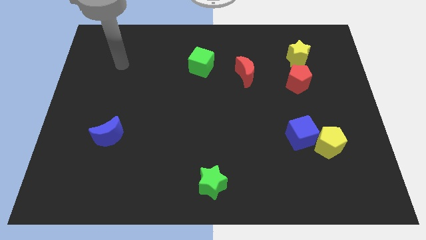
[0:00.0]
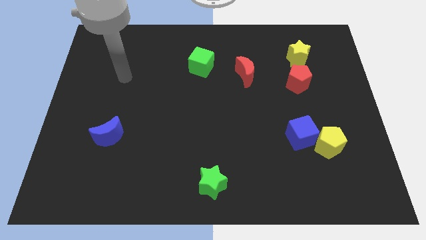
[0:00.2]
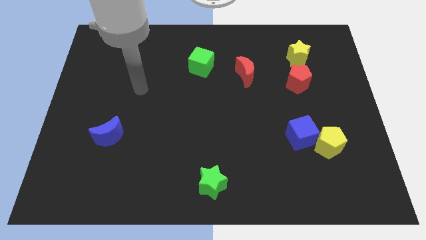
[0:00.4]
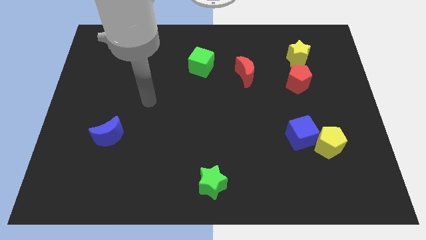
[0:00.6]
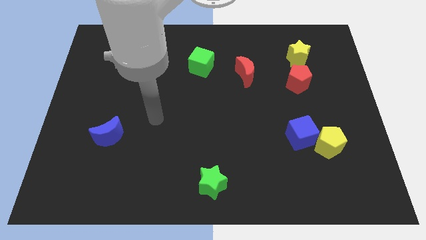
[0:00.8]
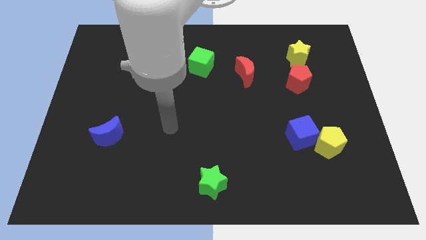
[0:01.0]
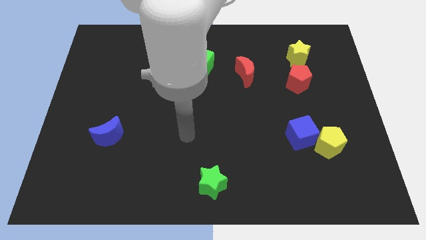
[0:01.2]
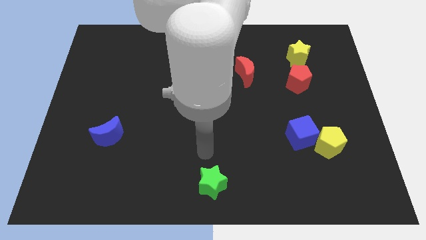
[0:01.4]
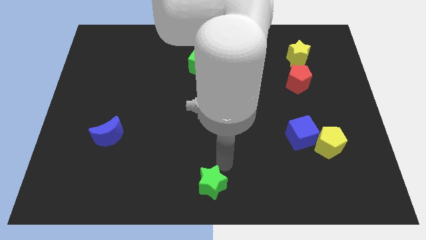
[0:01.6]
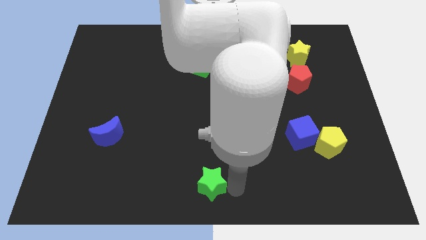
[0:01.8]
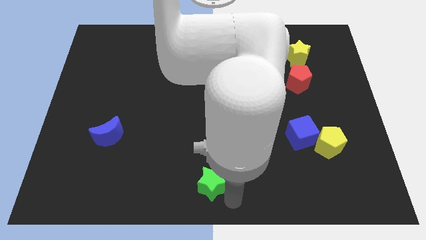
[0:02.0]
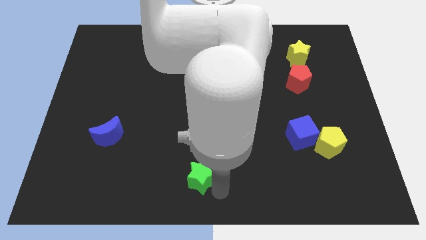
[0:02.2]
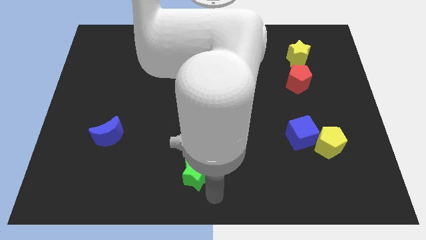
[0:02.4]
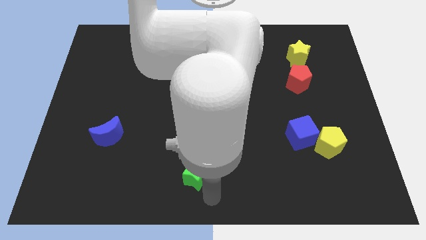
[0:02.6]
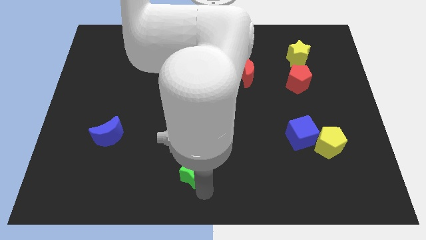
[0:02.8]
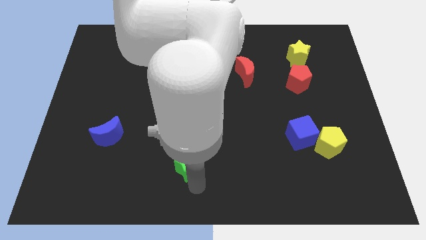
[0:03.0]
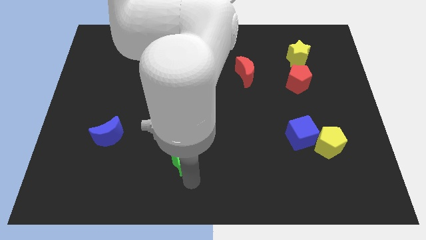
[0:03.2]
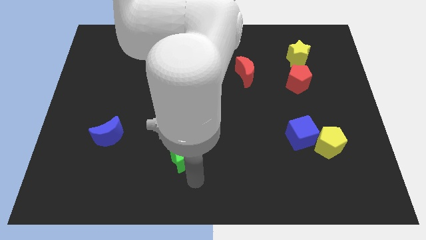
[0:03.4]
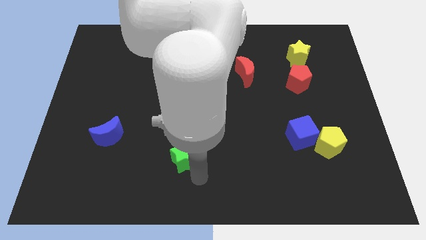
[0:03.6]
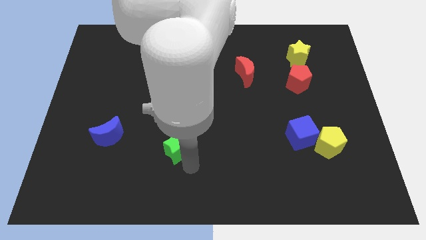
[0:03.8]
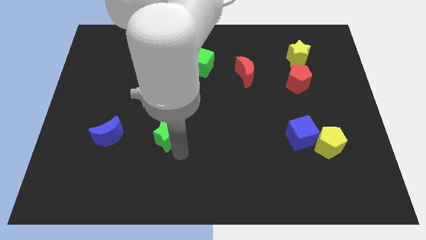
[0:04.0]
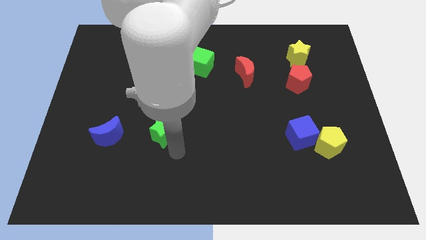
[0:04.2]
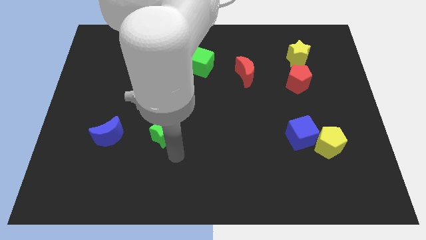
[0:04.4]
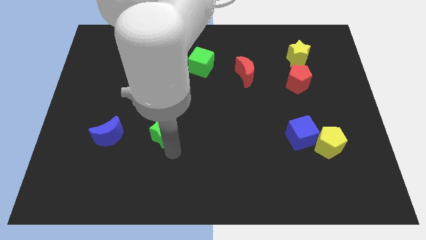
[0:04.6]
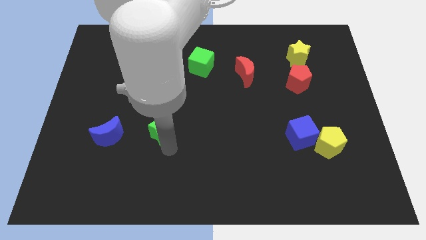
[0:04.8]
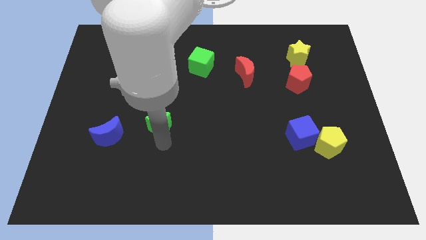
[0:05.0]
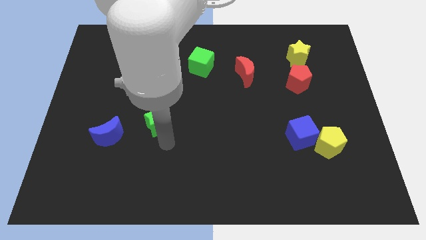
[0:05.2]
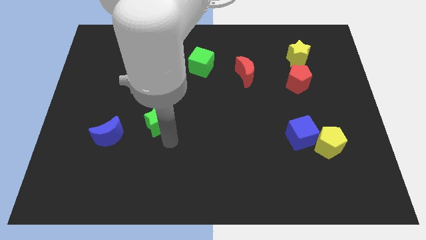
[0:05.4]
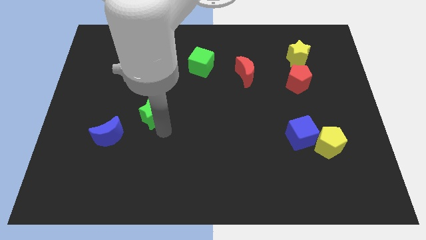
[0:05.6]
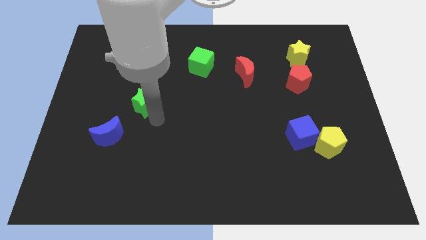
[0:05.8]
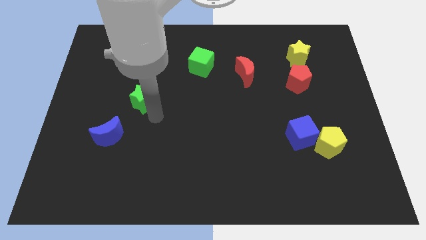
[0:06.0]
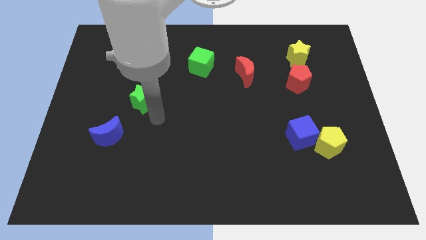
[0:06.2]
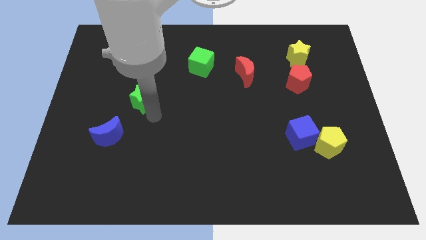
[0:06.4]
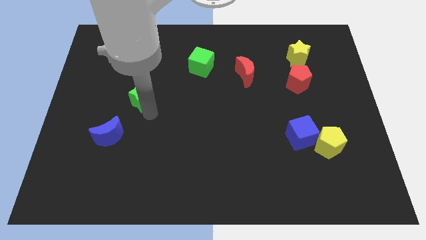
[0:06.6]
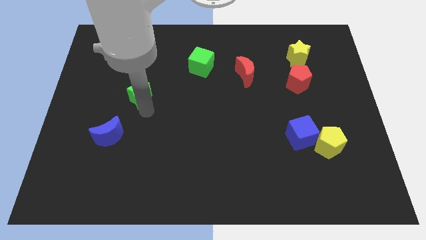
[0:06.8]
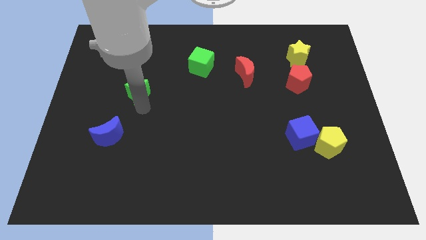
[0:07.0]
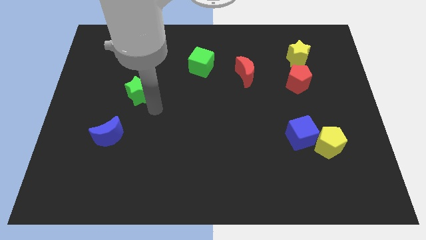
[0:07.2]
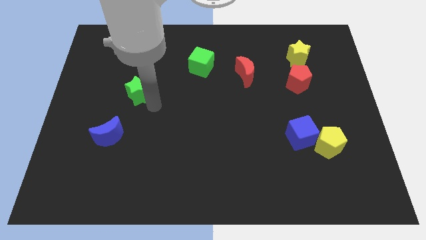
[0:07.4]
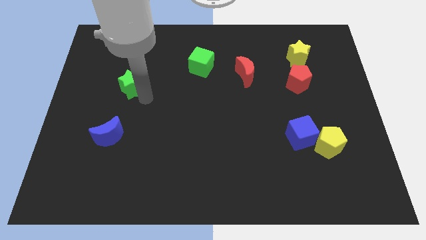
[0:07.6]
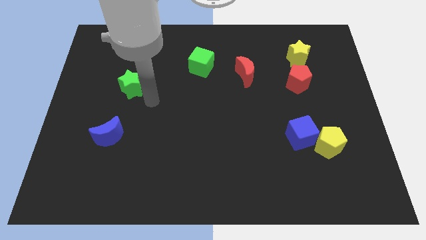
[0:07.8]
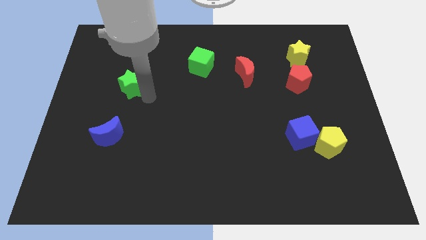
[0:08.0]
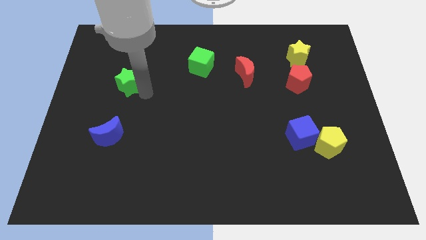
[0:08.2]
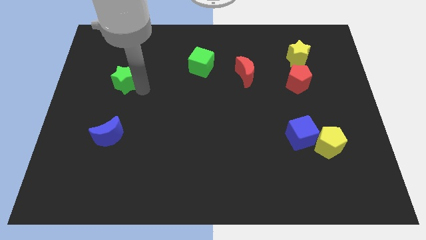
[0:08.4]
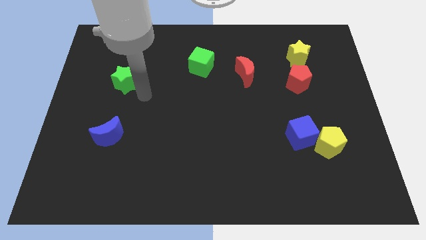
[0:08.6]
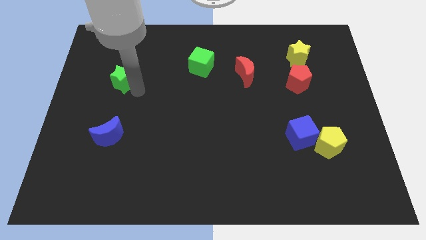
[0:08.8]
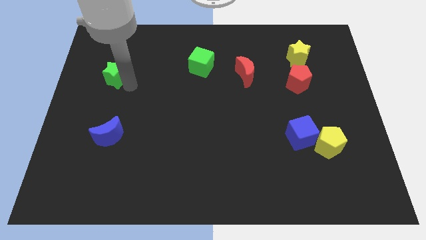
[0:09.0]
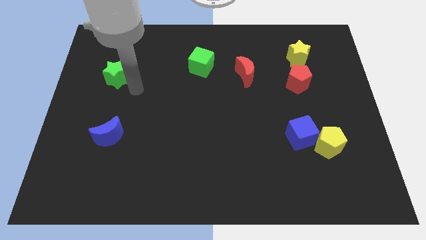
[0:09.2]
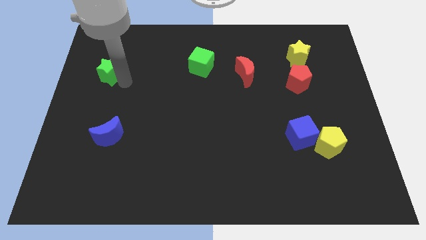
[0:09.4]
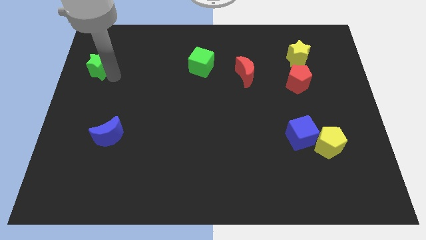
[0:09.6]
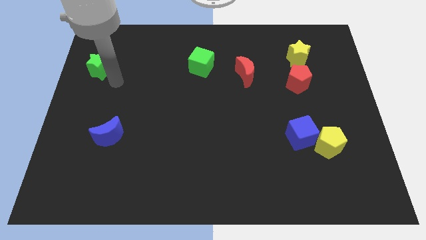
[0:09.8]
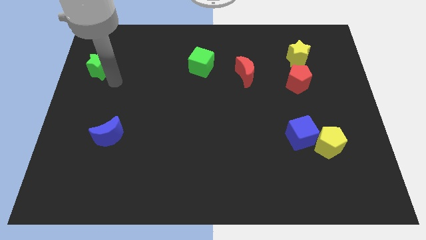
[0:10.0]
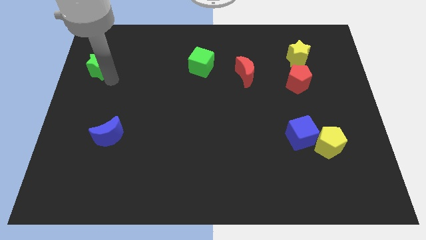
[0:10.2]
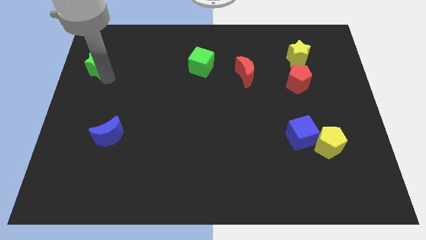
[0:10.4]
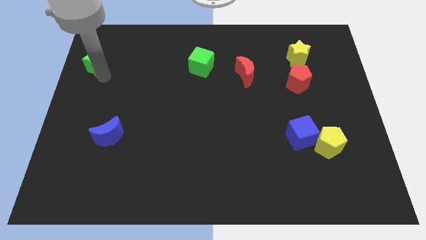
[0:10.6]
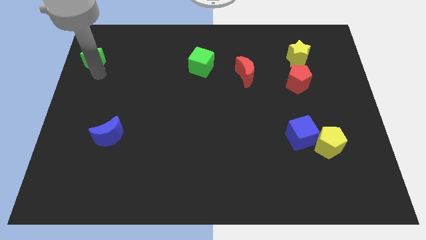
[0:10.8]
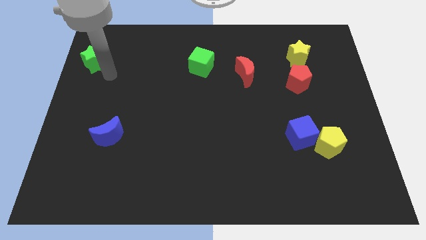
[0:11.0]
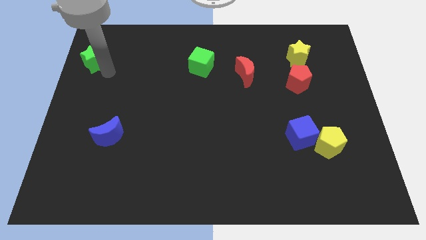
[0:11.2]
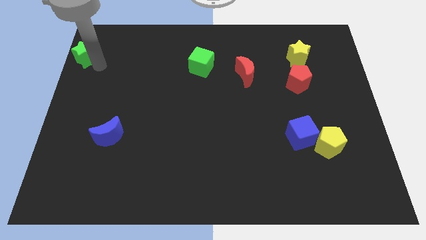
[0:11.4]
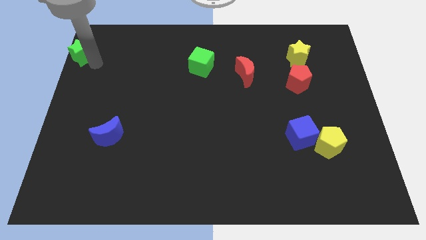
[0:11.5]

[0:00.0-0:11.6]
move the green star to the top left corner

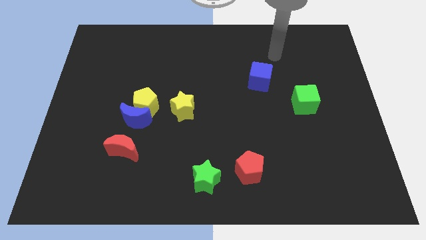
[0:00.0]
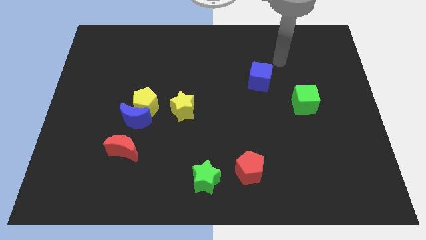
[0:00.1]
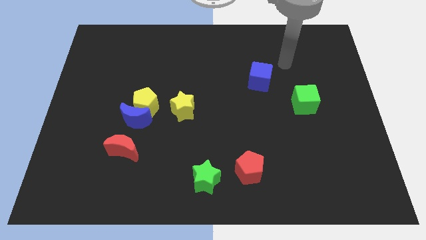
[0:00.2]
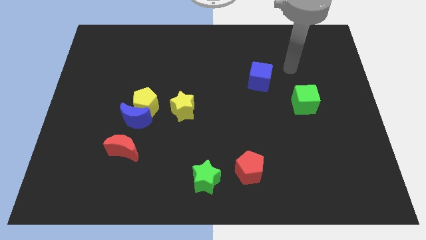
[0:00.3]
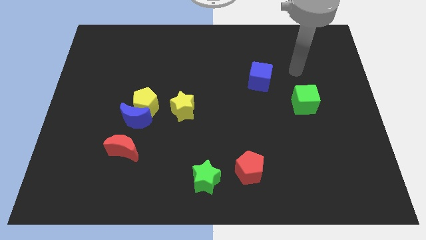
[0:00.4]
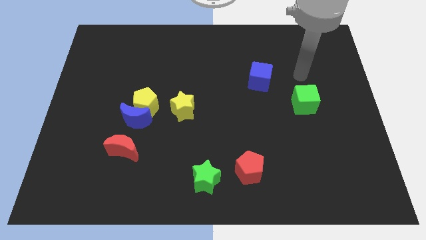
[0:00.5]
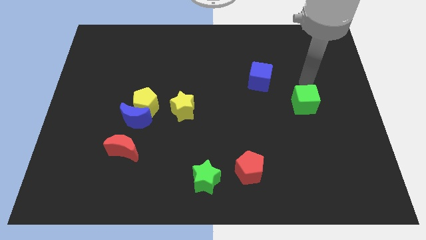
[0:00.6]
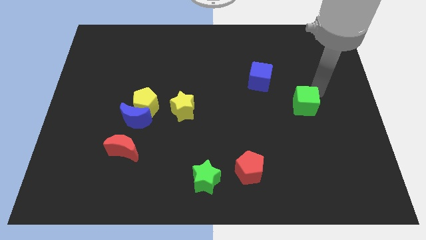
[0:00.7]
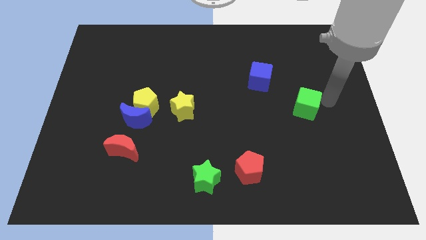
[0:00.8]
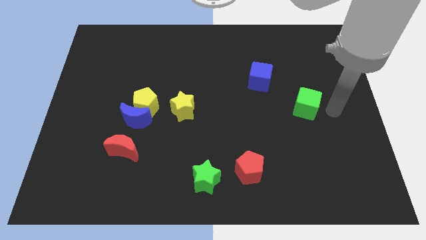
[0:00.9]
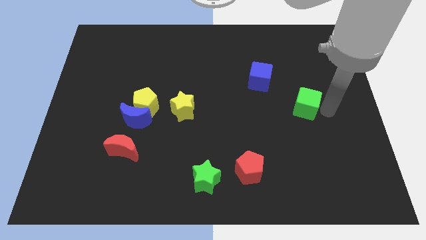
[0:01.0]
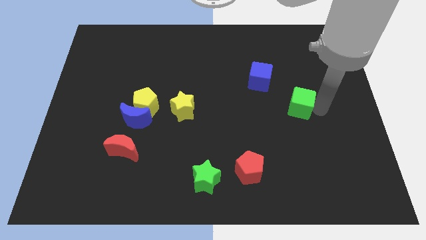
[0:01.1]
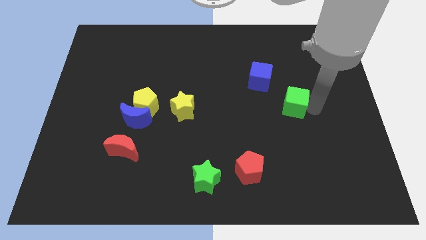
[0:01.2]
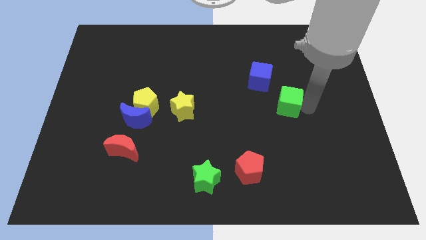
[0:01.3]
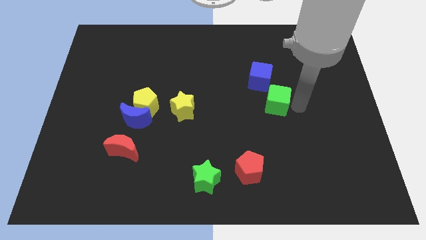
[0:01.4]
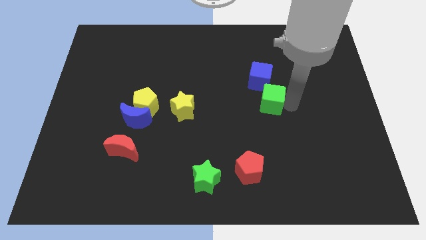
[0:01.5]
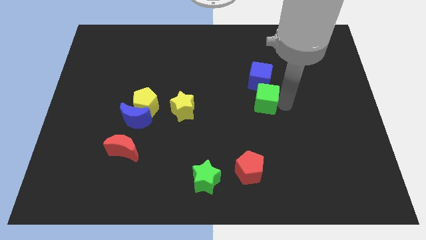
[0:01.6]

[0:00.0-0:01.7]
push the green cube to the center of the board
